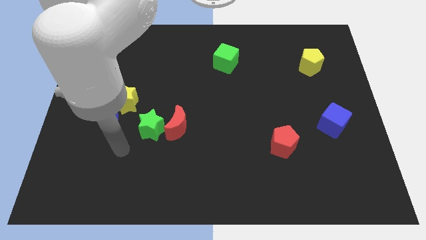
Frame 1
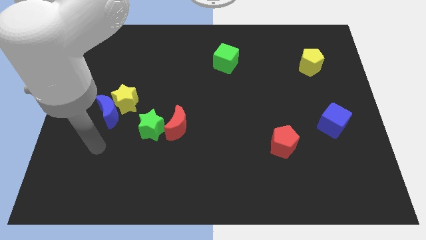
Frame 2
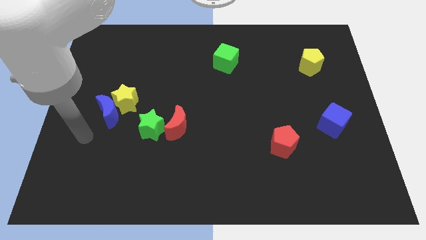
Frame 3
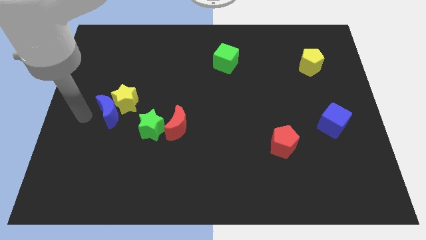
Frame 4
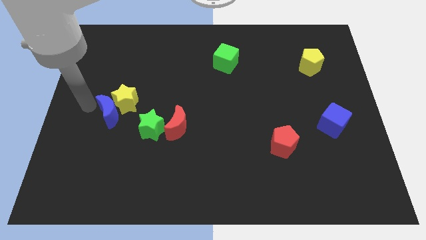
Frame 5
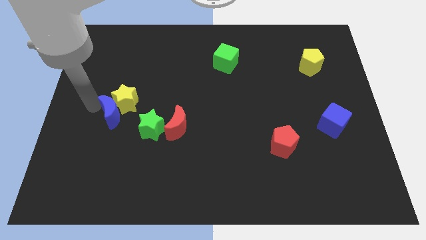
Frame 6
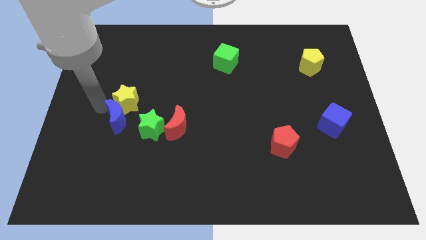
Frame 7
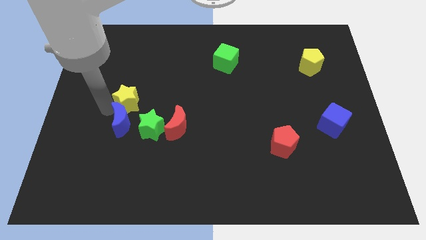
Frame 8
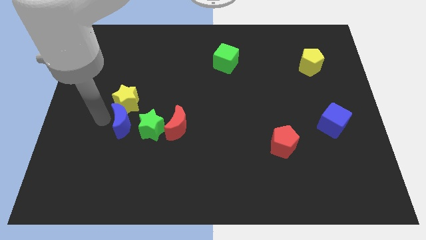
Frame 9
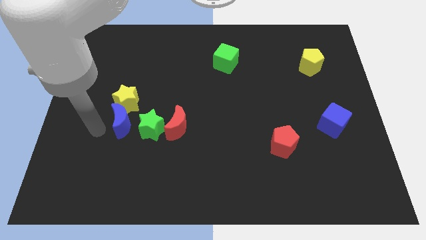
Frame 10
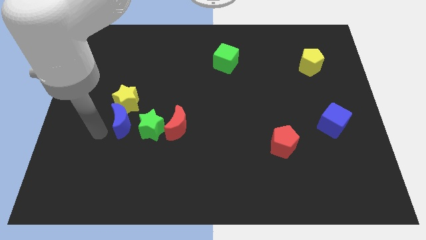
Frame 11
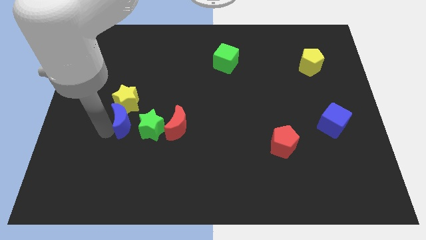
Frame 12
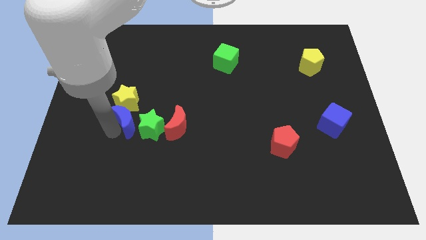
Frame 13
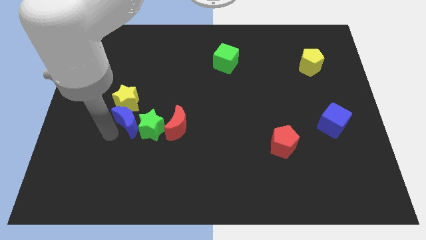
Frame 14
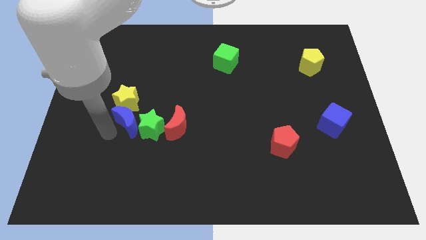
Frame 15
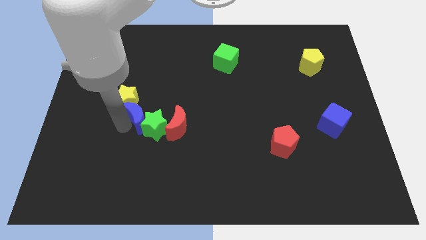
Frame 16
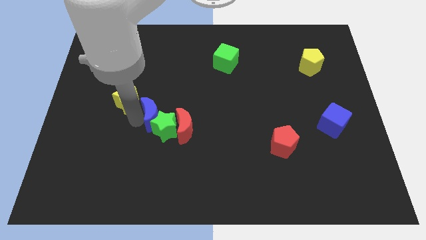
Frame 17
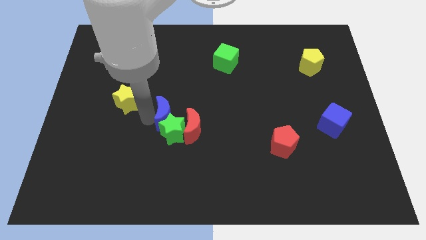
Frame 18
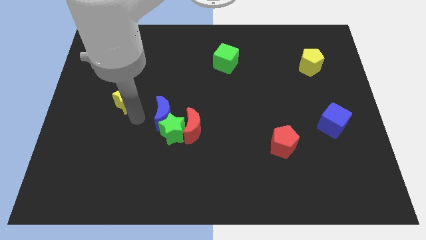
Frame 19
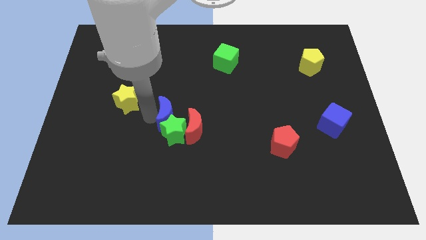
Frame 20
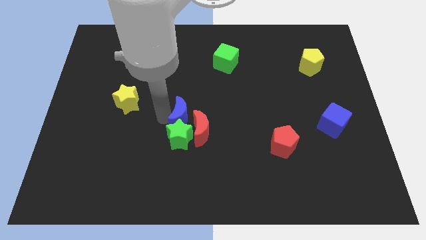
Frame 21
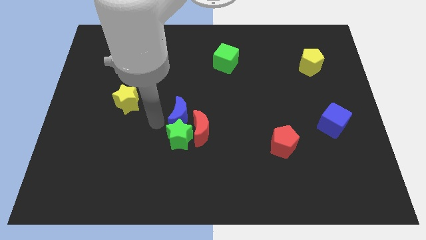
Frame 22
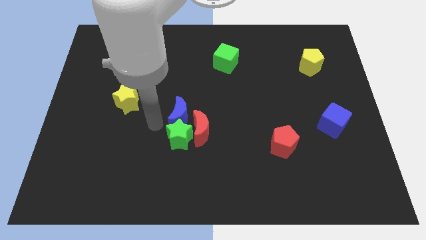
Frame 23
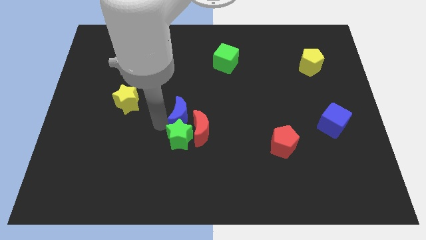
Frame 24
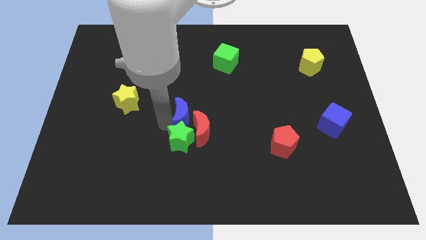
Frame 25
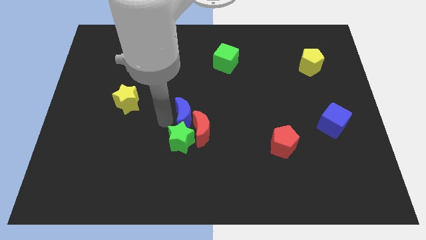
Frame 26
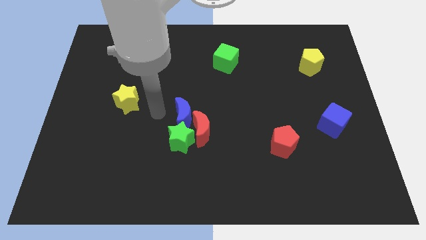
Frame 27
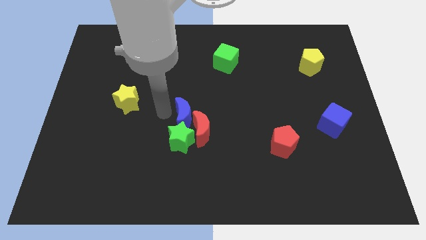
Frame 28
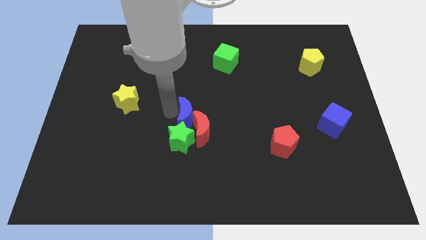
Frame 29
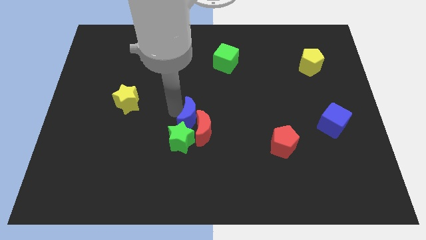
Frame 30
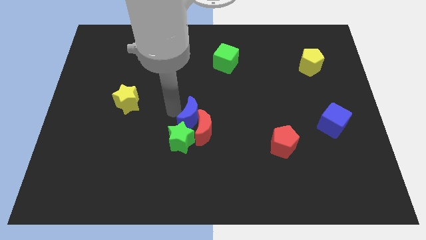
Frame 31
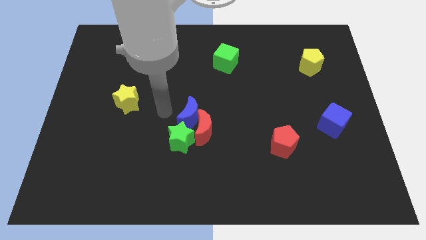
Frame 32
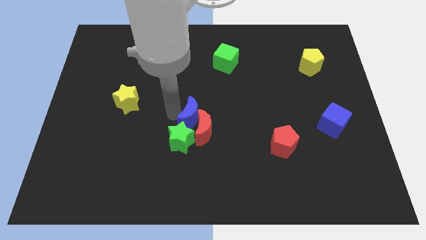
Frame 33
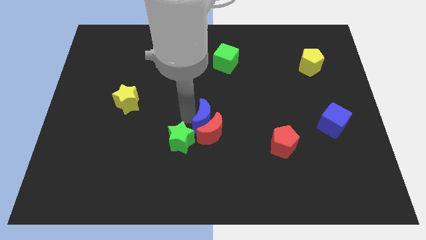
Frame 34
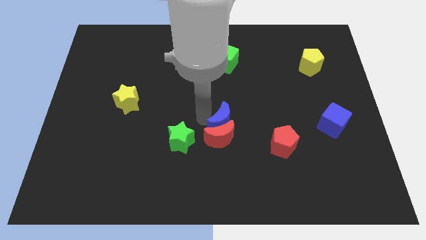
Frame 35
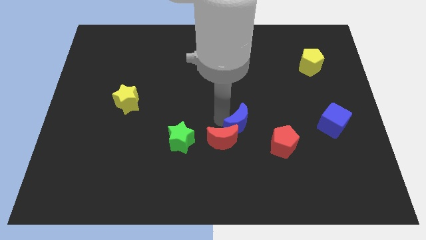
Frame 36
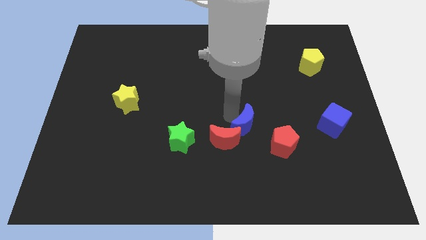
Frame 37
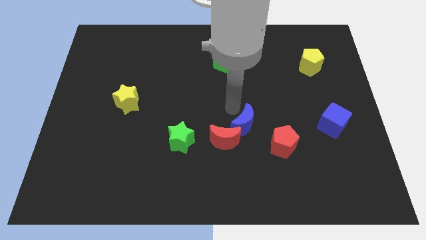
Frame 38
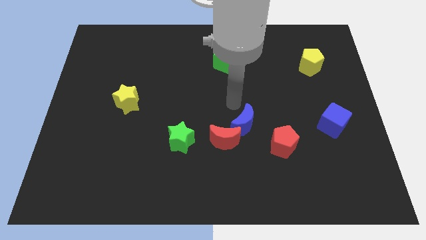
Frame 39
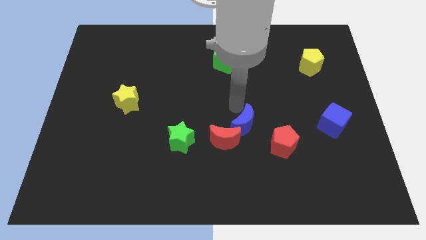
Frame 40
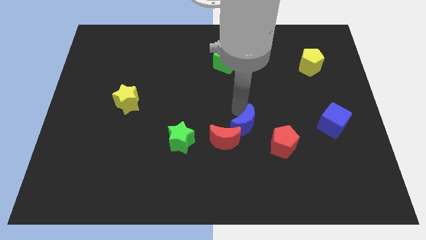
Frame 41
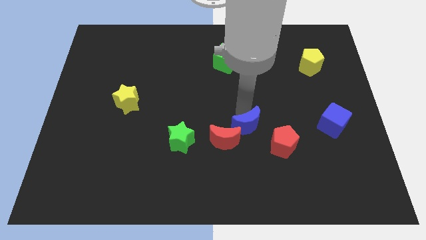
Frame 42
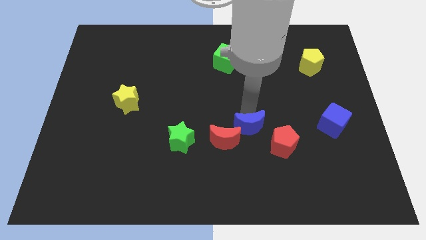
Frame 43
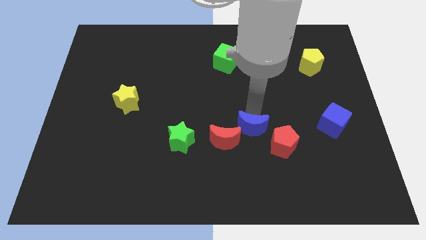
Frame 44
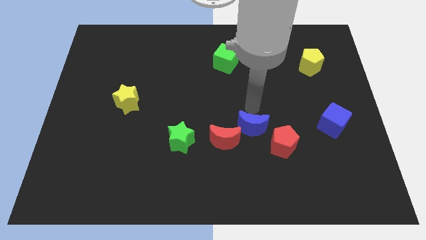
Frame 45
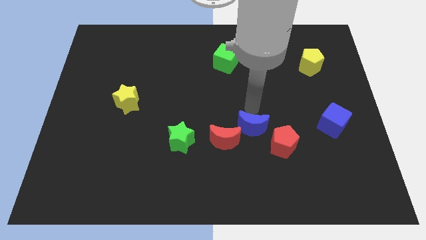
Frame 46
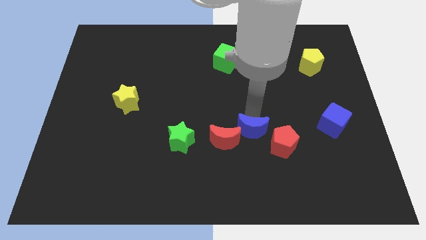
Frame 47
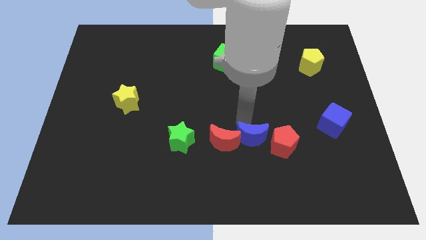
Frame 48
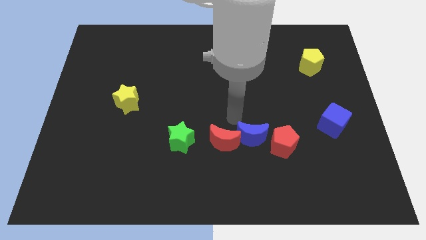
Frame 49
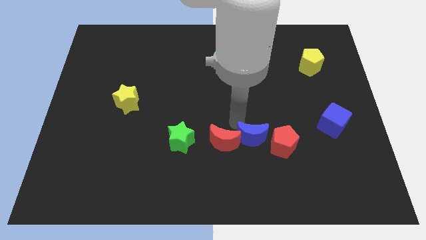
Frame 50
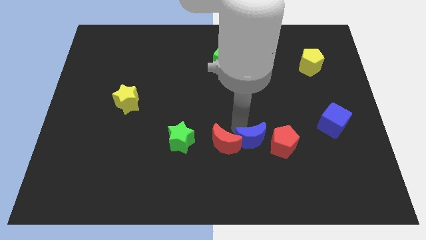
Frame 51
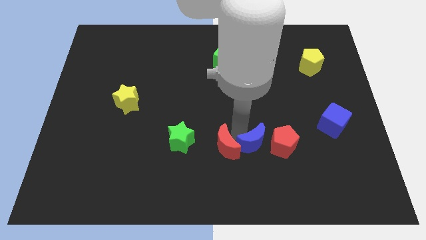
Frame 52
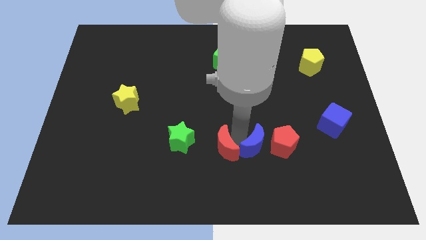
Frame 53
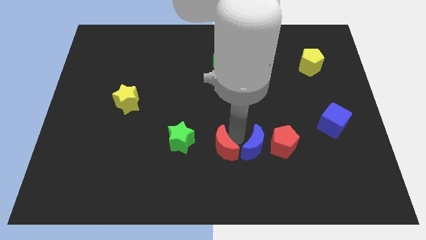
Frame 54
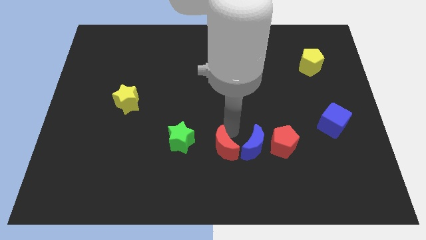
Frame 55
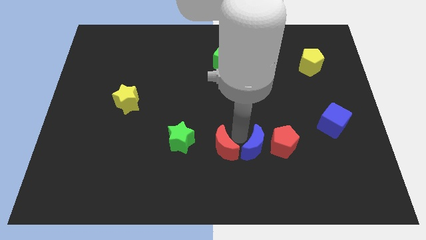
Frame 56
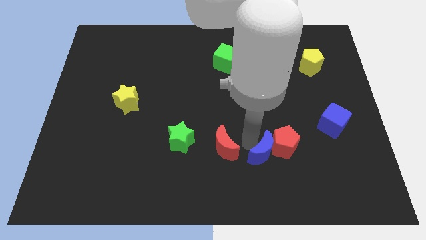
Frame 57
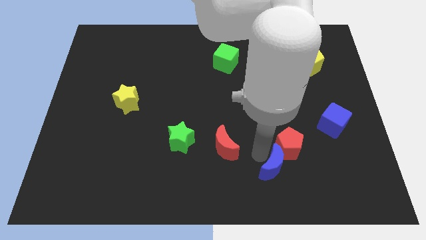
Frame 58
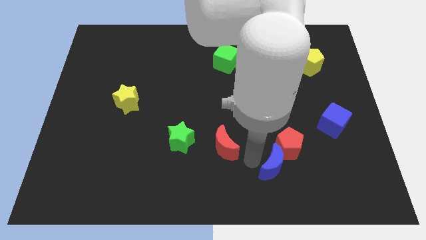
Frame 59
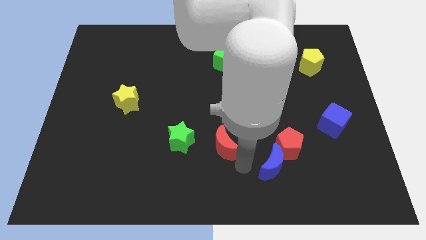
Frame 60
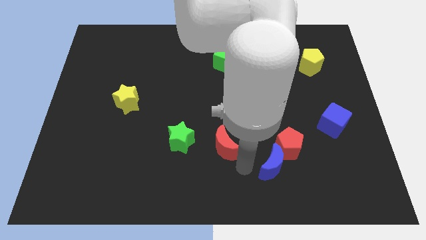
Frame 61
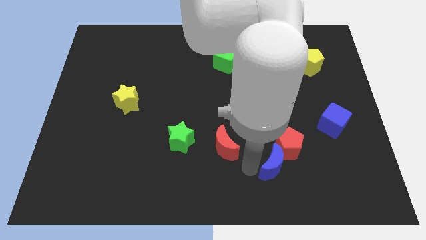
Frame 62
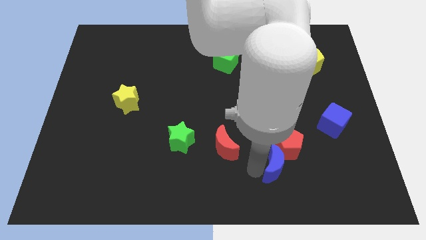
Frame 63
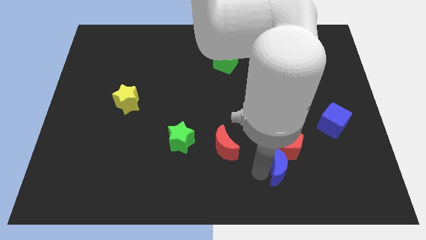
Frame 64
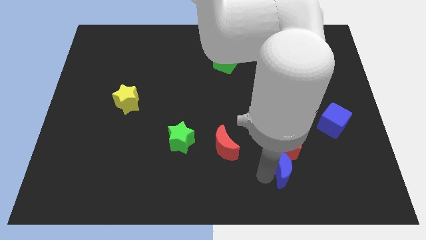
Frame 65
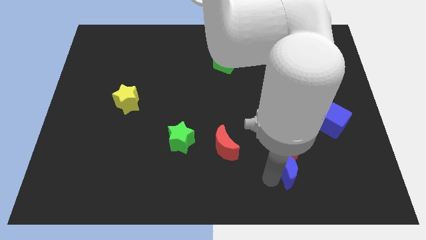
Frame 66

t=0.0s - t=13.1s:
slide the blue moon diagonally down and to the right of the red pentagon

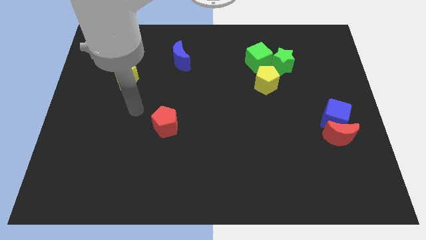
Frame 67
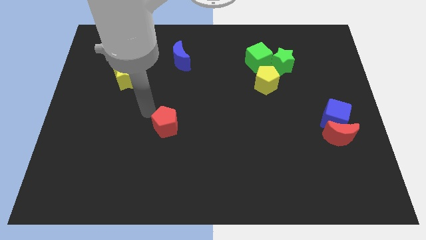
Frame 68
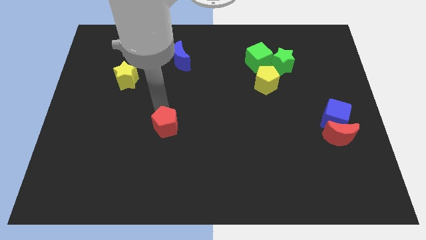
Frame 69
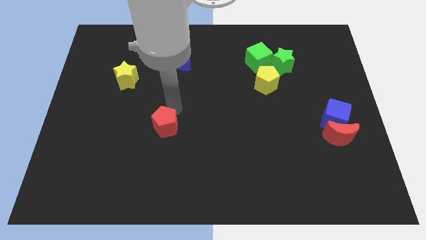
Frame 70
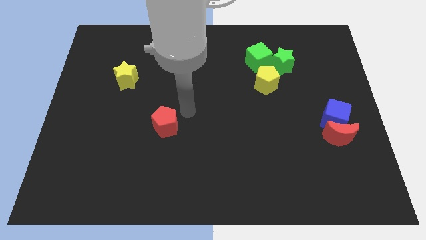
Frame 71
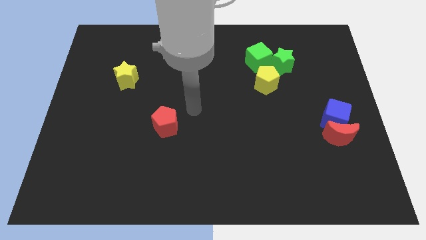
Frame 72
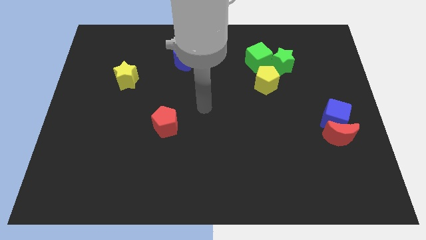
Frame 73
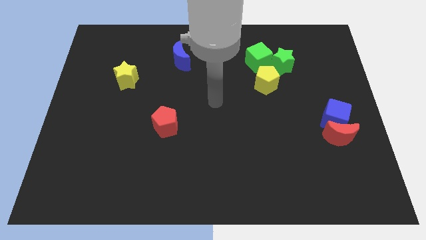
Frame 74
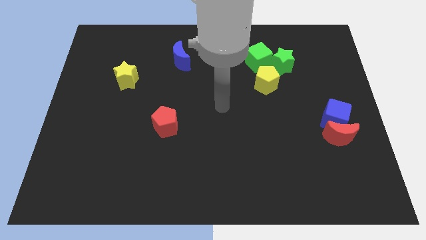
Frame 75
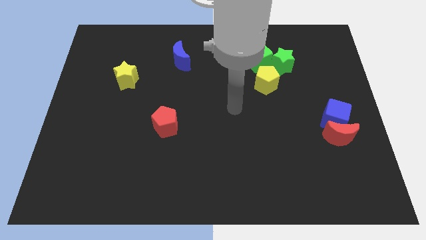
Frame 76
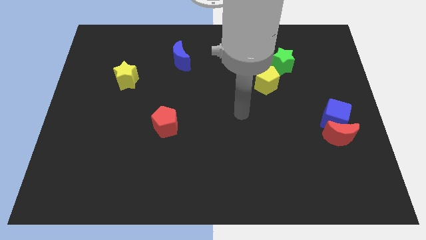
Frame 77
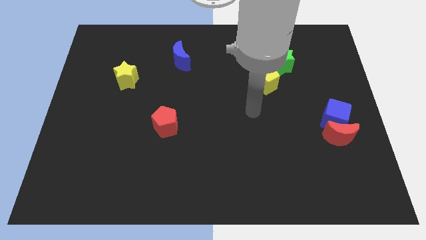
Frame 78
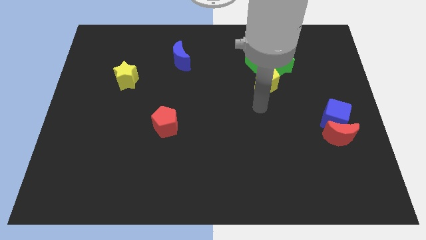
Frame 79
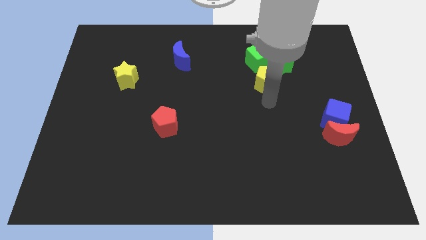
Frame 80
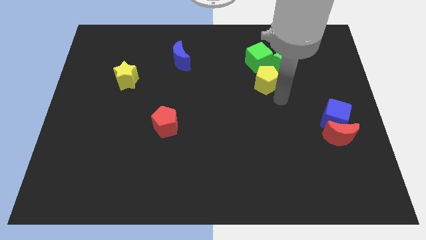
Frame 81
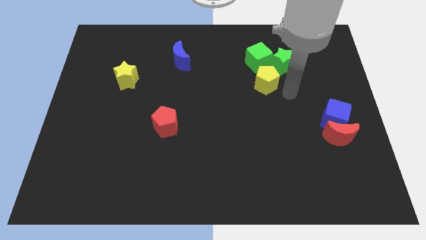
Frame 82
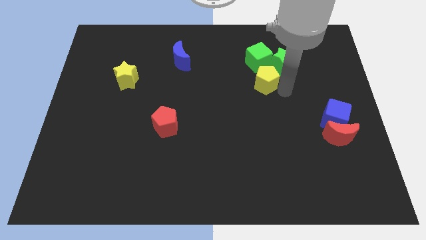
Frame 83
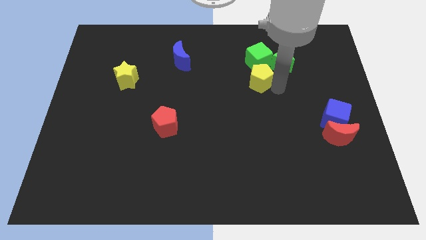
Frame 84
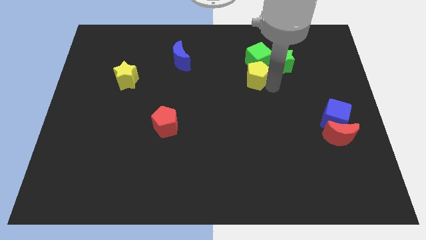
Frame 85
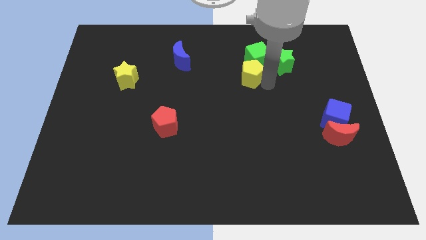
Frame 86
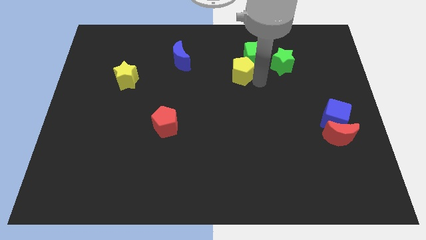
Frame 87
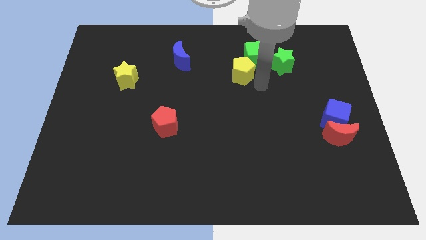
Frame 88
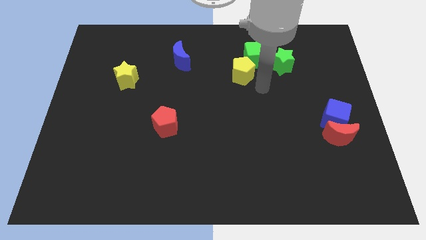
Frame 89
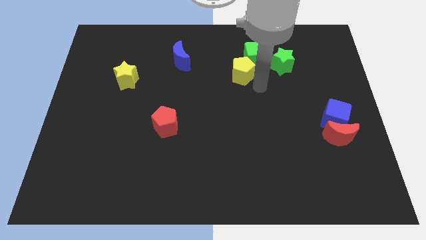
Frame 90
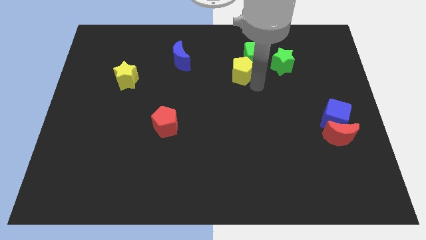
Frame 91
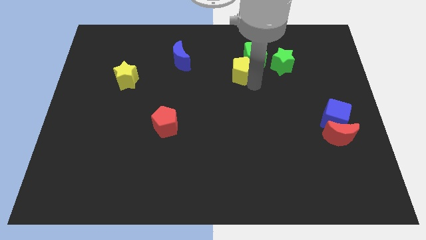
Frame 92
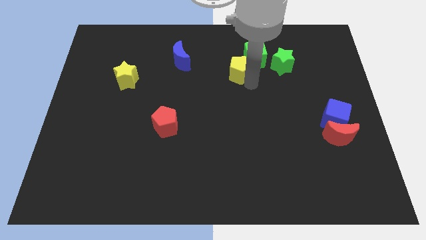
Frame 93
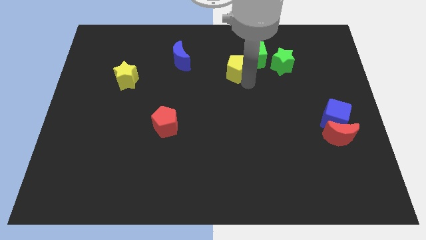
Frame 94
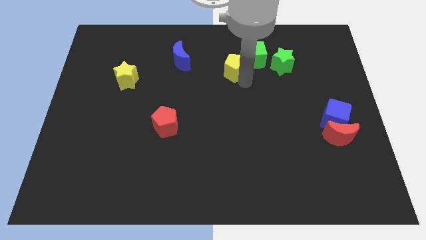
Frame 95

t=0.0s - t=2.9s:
push the yellow pentagon to the right of the blue moon
